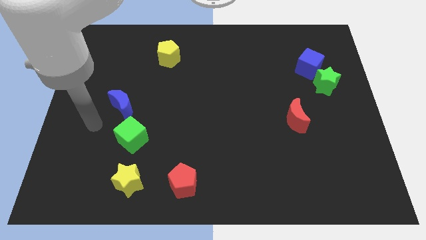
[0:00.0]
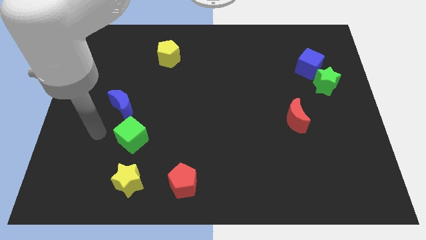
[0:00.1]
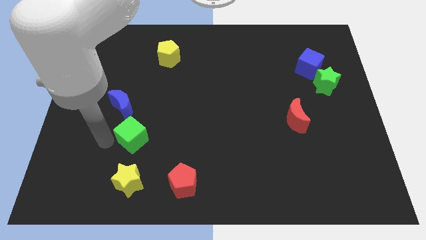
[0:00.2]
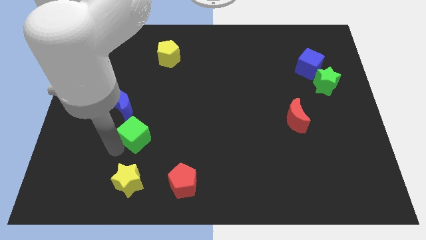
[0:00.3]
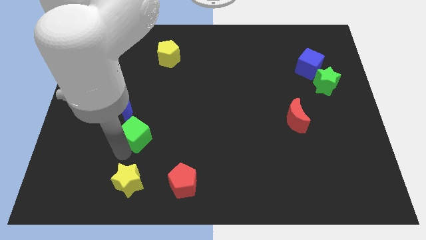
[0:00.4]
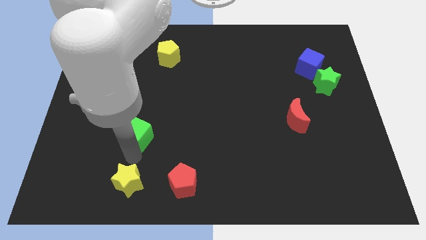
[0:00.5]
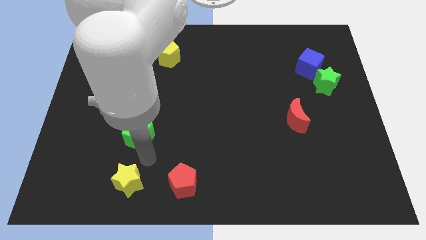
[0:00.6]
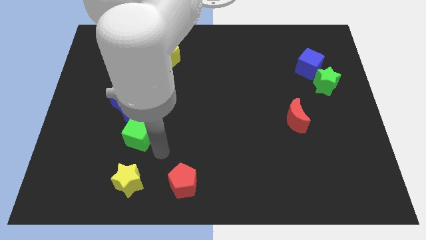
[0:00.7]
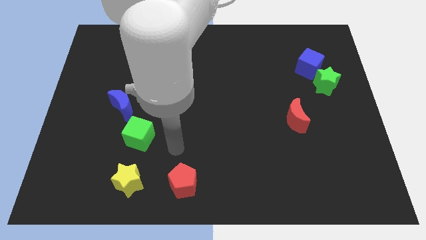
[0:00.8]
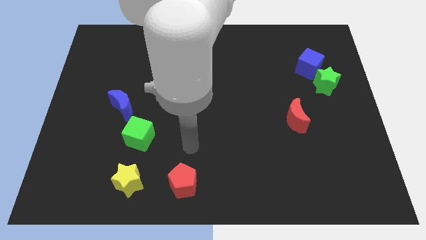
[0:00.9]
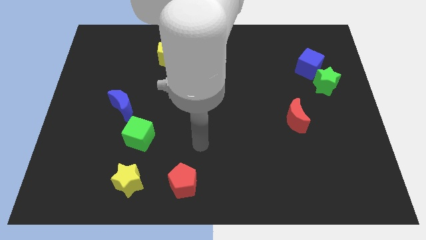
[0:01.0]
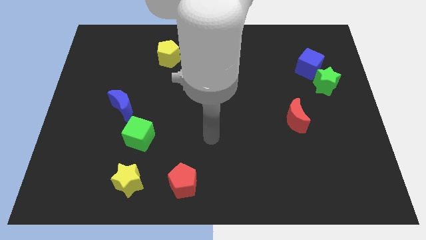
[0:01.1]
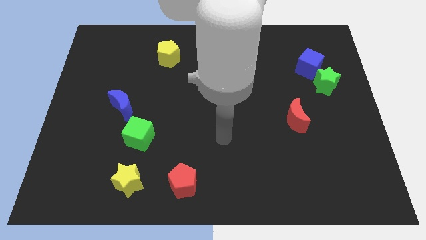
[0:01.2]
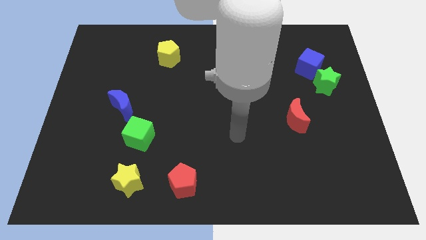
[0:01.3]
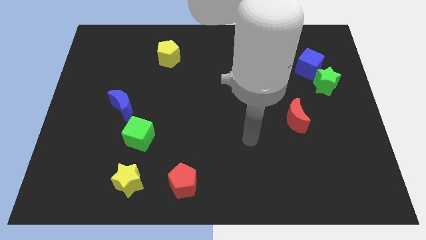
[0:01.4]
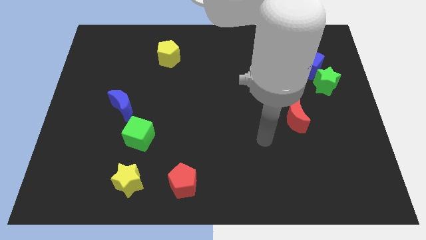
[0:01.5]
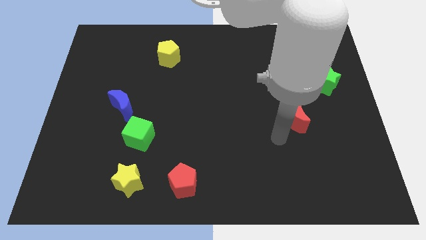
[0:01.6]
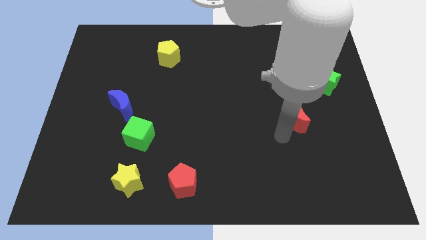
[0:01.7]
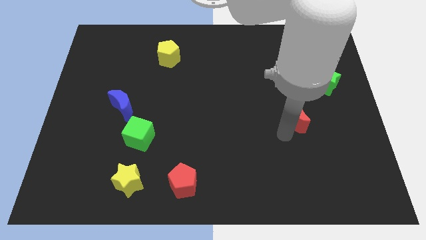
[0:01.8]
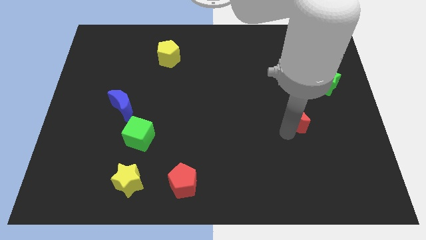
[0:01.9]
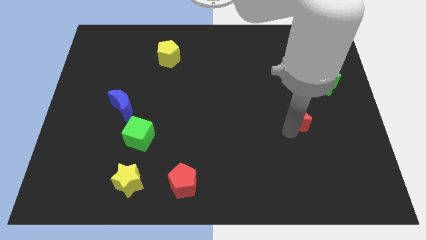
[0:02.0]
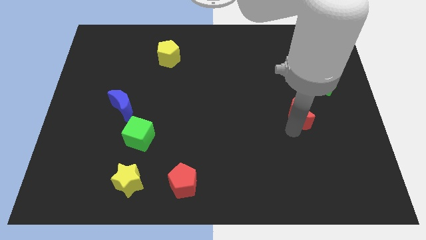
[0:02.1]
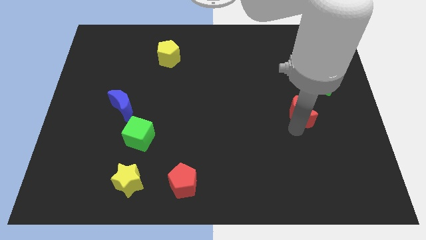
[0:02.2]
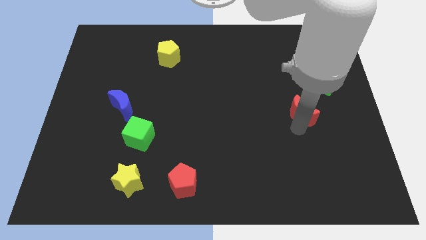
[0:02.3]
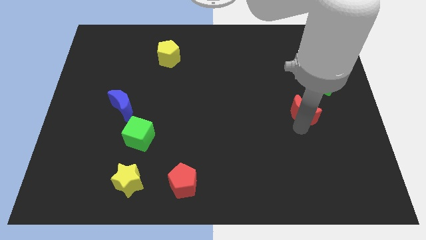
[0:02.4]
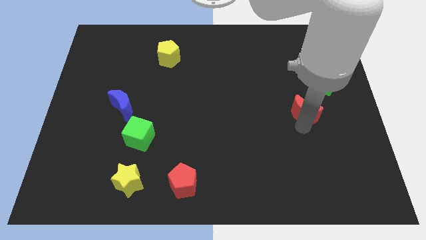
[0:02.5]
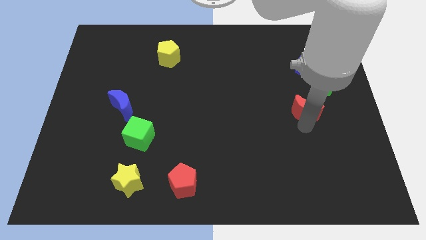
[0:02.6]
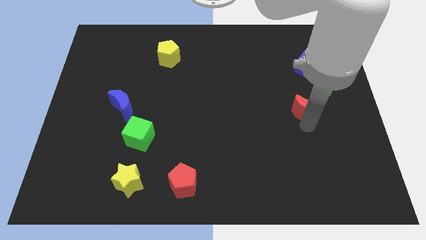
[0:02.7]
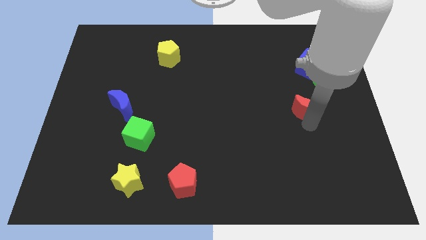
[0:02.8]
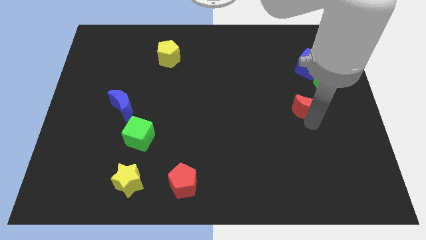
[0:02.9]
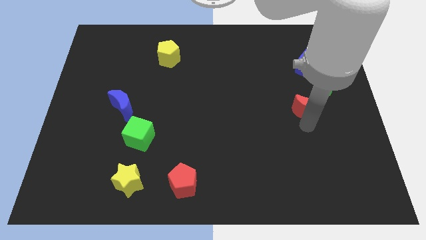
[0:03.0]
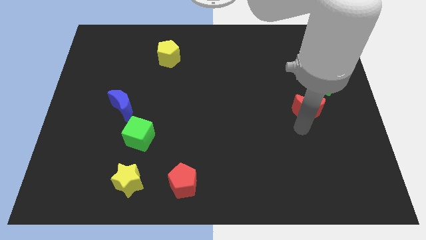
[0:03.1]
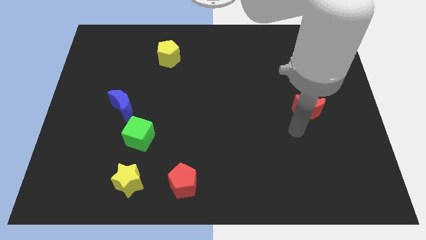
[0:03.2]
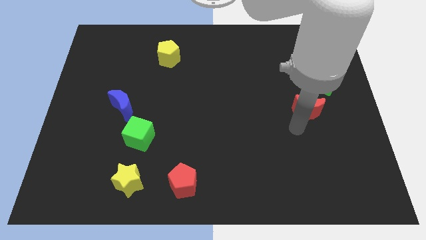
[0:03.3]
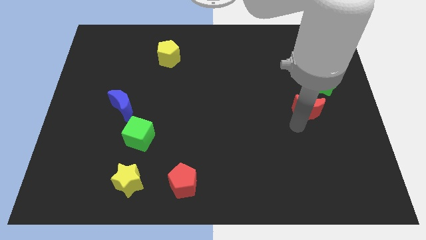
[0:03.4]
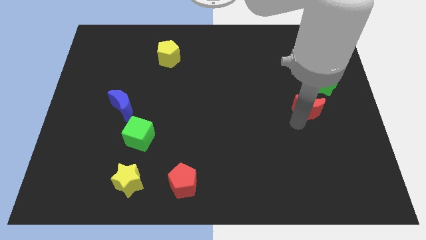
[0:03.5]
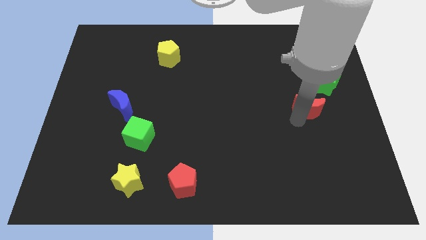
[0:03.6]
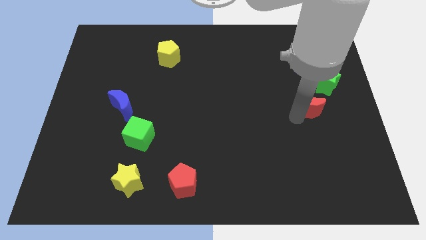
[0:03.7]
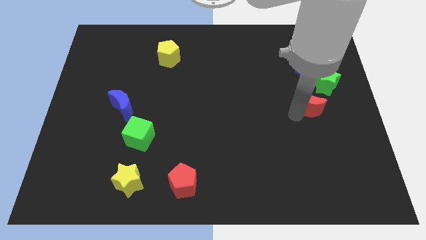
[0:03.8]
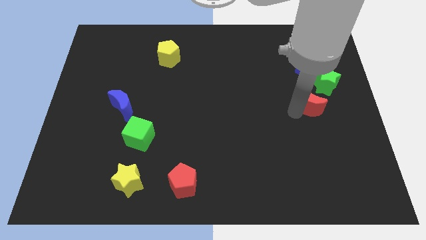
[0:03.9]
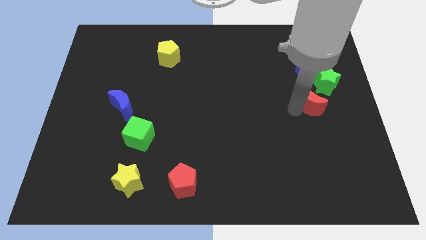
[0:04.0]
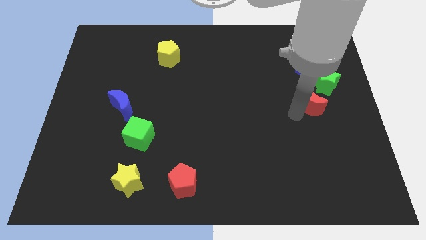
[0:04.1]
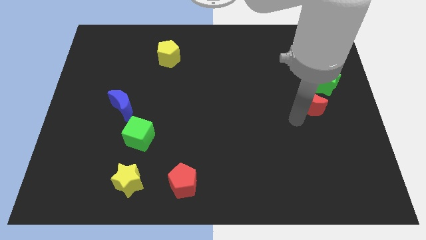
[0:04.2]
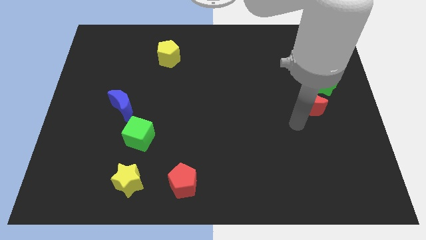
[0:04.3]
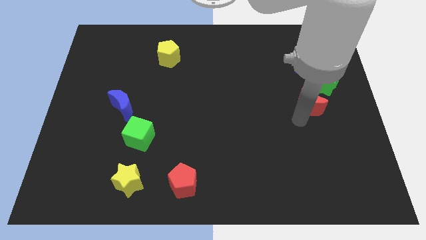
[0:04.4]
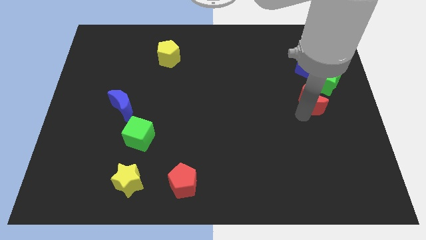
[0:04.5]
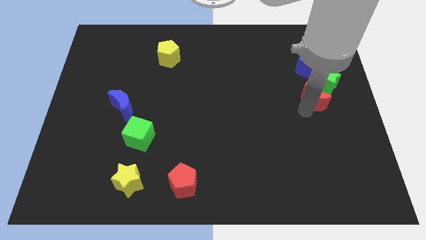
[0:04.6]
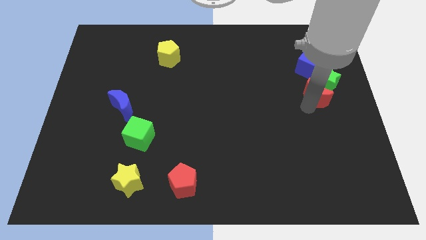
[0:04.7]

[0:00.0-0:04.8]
put the red moon to the green star

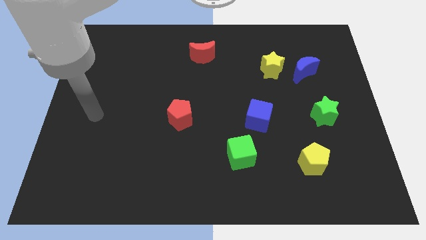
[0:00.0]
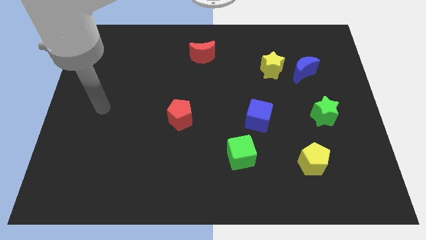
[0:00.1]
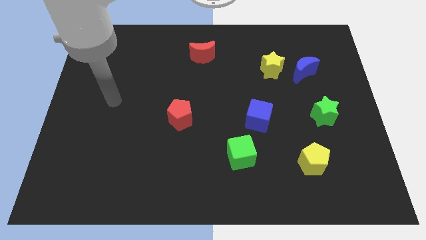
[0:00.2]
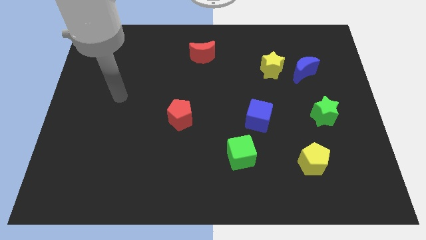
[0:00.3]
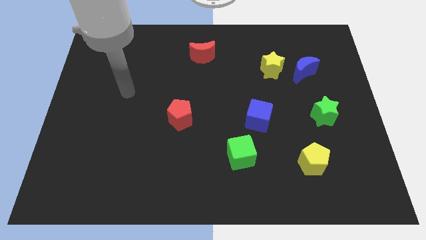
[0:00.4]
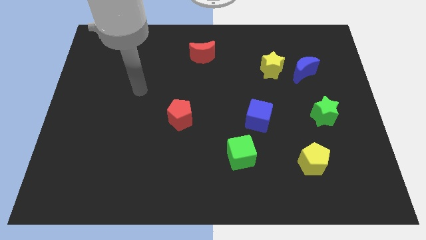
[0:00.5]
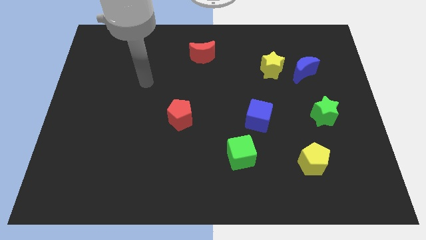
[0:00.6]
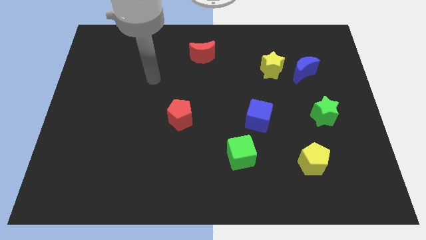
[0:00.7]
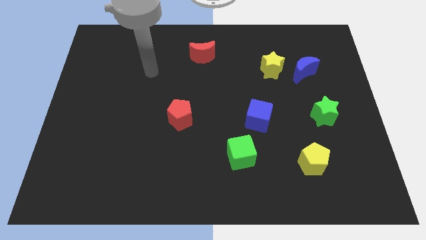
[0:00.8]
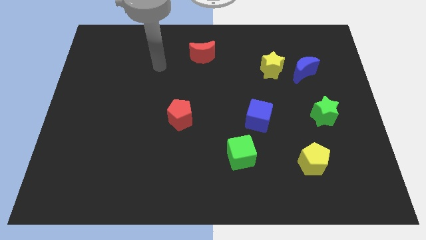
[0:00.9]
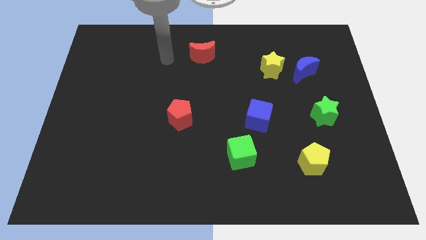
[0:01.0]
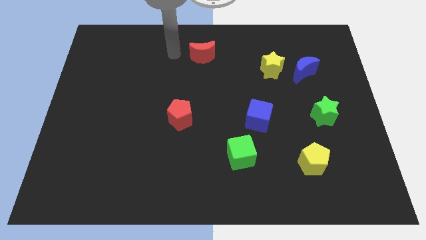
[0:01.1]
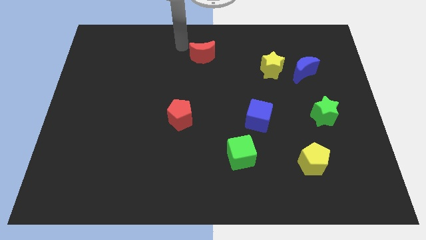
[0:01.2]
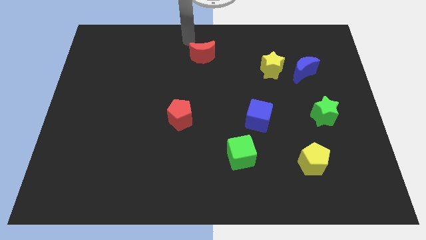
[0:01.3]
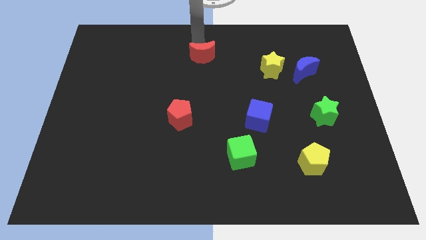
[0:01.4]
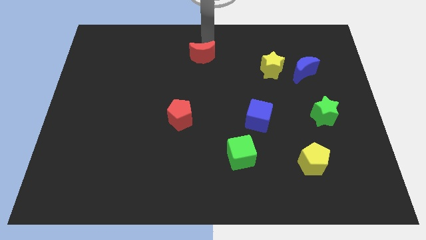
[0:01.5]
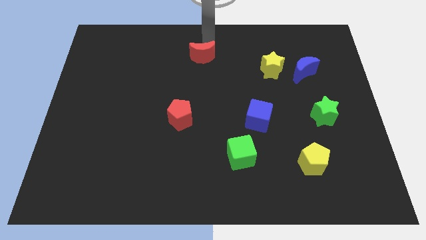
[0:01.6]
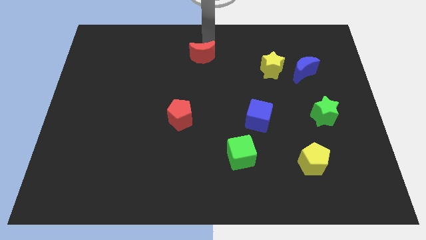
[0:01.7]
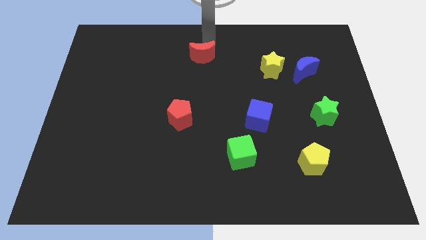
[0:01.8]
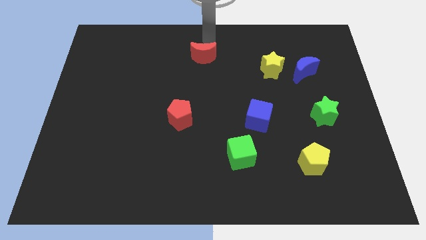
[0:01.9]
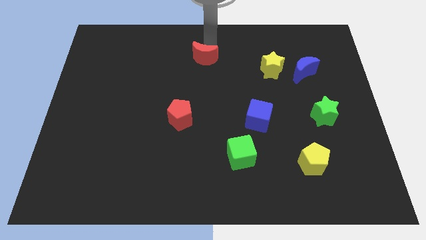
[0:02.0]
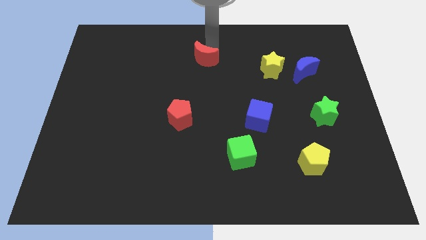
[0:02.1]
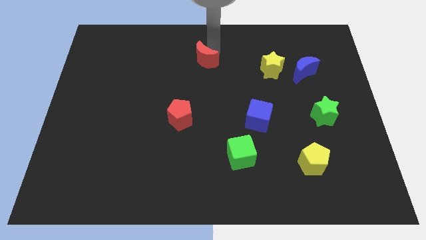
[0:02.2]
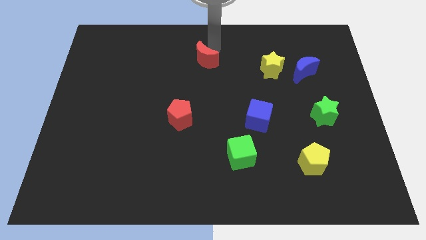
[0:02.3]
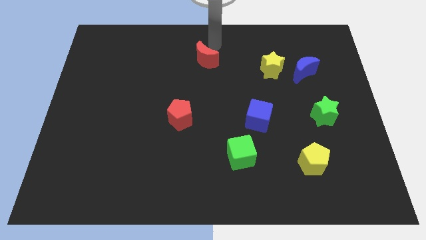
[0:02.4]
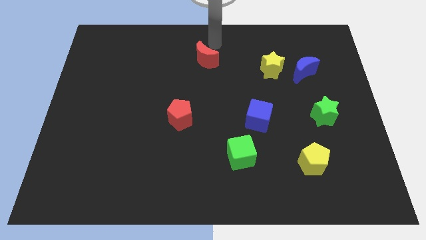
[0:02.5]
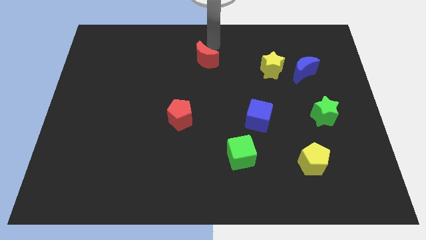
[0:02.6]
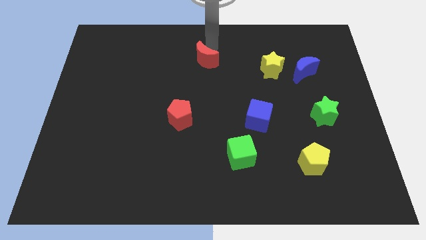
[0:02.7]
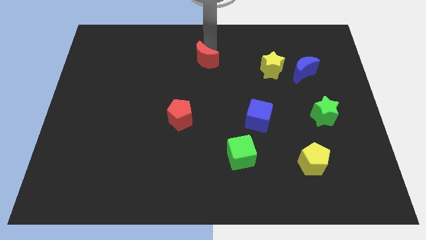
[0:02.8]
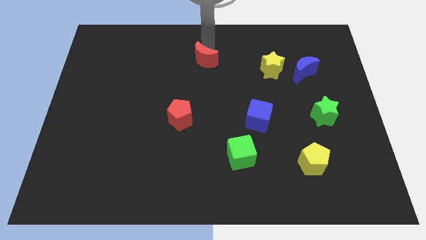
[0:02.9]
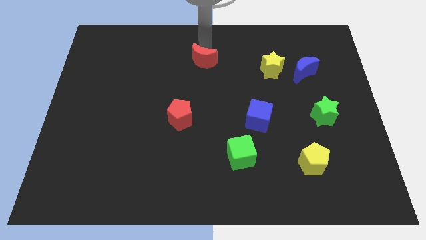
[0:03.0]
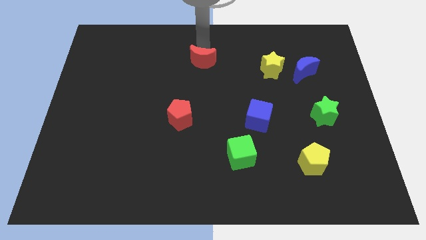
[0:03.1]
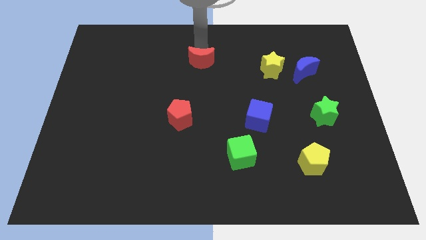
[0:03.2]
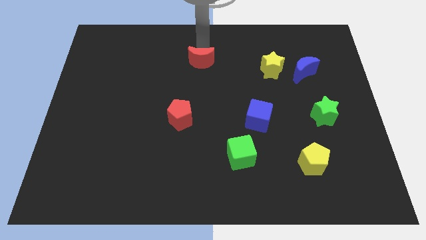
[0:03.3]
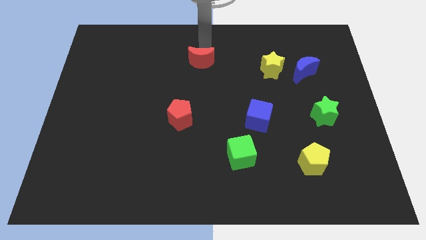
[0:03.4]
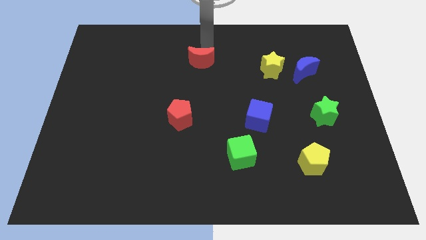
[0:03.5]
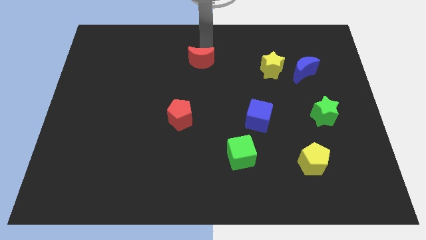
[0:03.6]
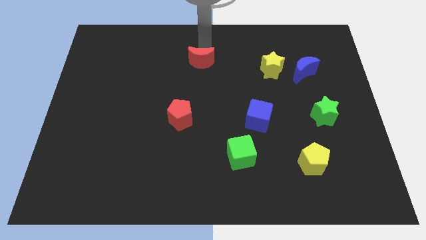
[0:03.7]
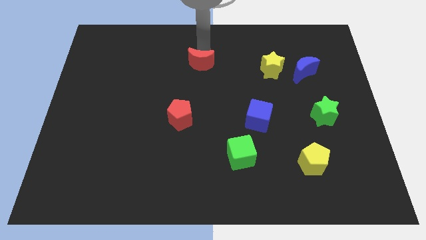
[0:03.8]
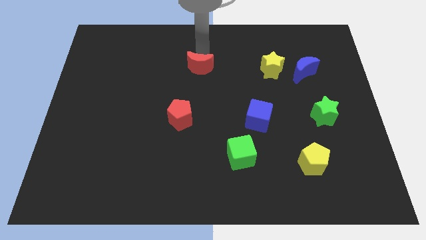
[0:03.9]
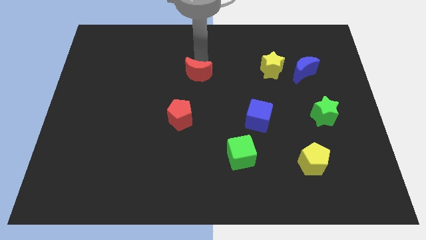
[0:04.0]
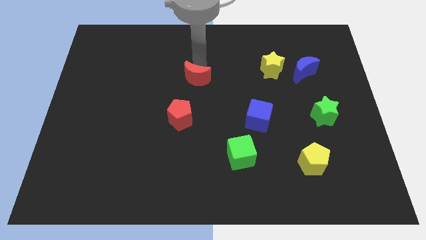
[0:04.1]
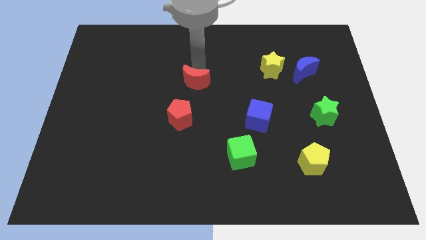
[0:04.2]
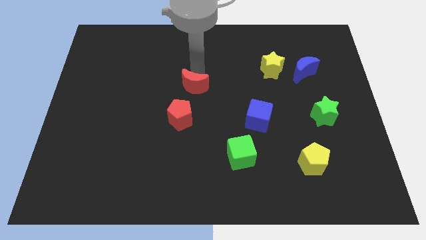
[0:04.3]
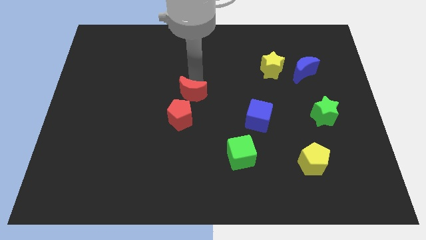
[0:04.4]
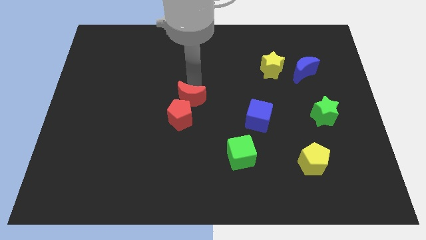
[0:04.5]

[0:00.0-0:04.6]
put the red moon close to the red pentagon
